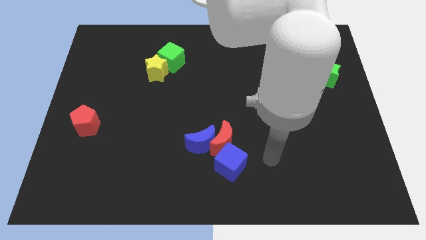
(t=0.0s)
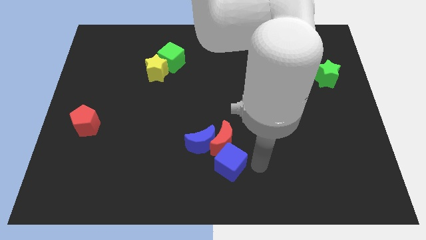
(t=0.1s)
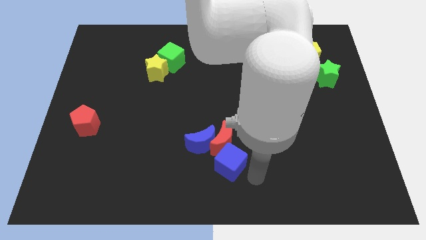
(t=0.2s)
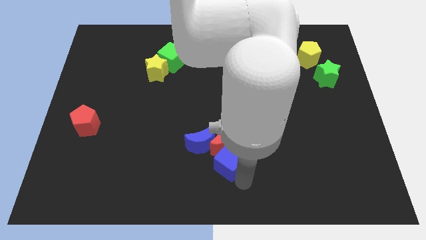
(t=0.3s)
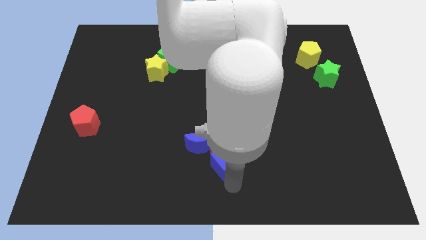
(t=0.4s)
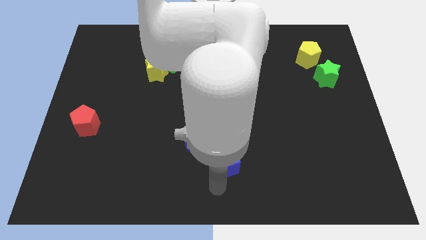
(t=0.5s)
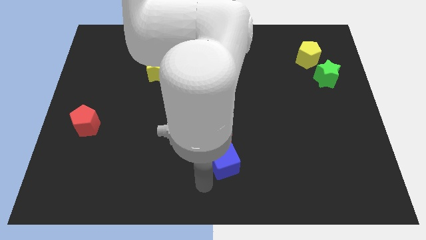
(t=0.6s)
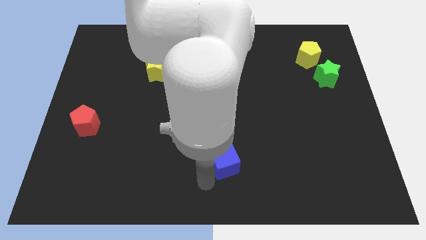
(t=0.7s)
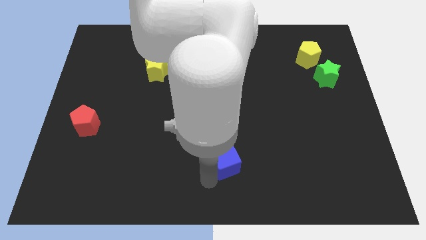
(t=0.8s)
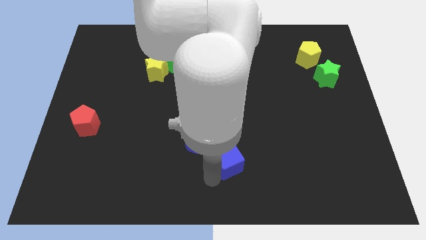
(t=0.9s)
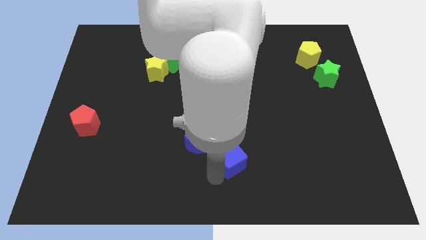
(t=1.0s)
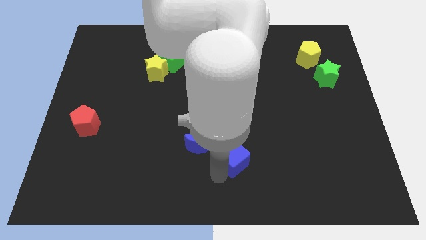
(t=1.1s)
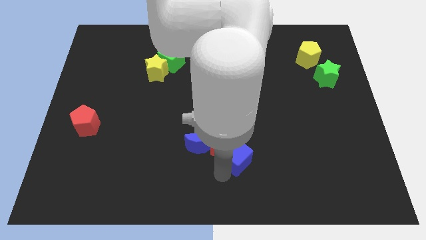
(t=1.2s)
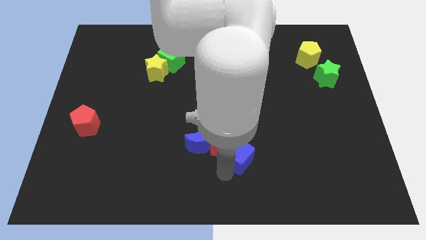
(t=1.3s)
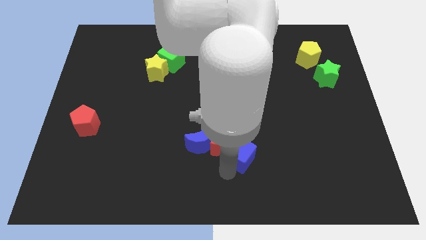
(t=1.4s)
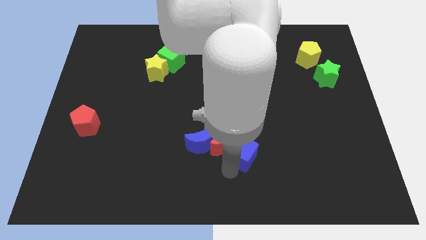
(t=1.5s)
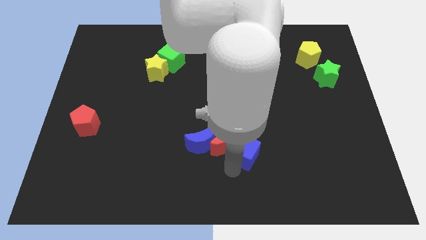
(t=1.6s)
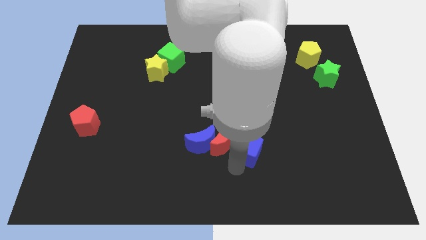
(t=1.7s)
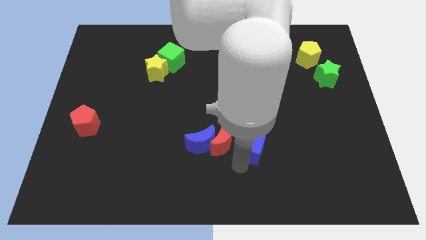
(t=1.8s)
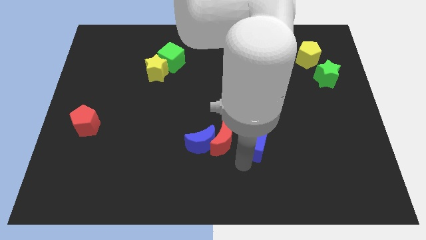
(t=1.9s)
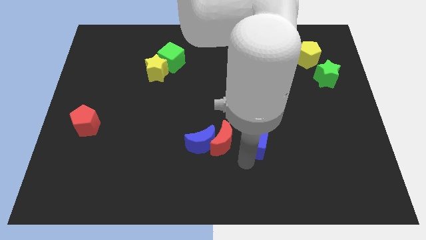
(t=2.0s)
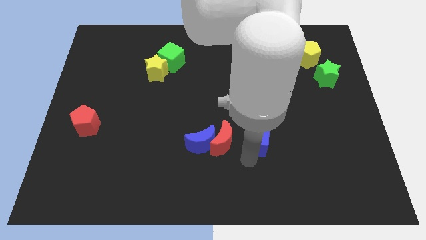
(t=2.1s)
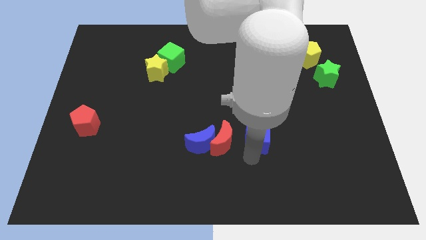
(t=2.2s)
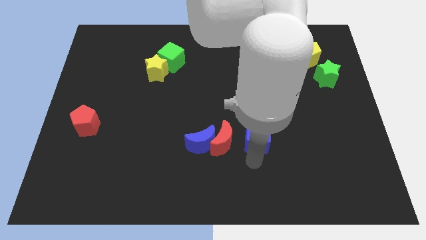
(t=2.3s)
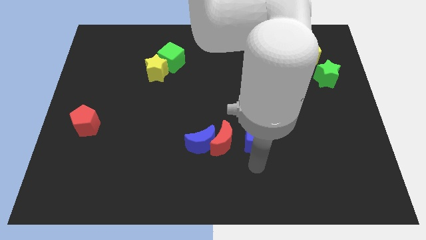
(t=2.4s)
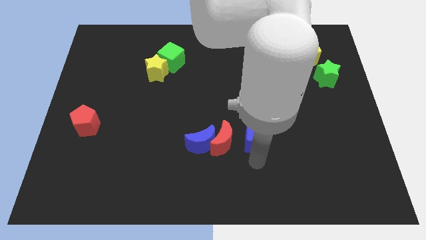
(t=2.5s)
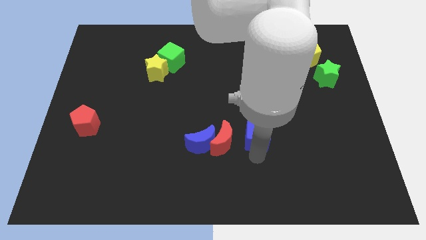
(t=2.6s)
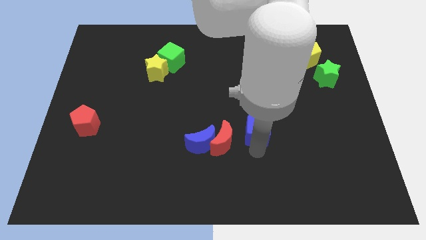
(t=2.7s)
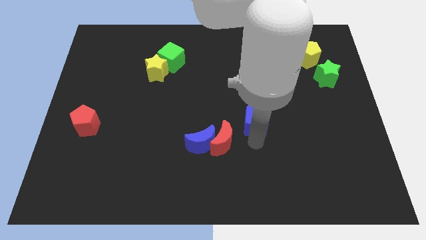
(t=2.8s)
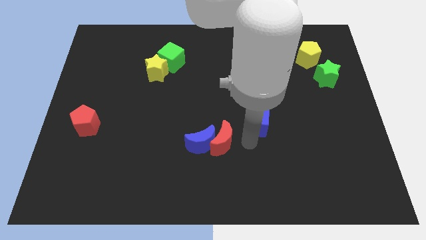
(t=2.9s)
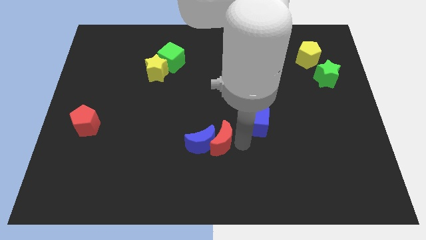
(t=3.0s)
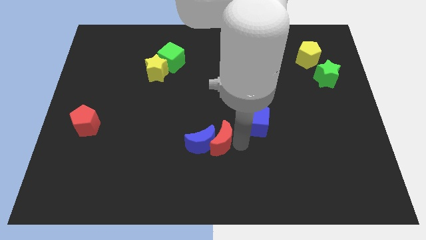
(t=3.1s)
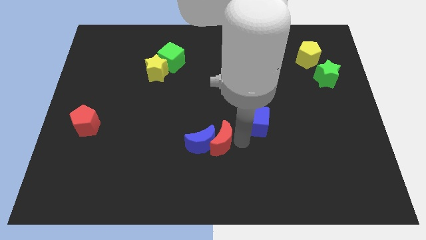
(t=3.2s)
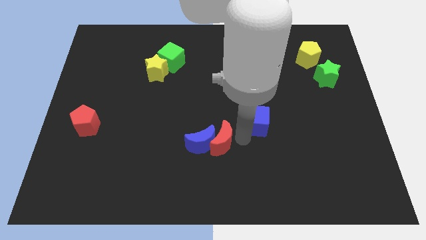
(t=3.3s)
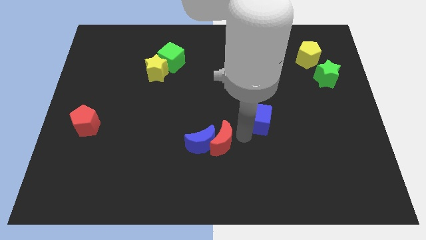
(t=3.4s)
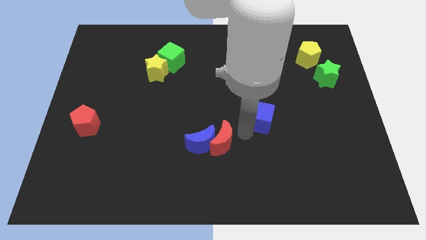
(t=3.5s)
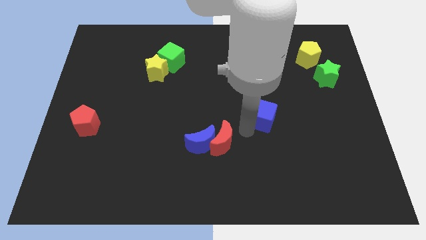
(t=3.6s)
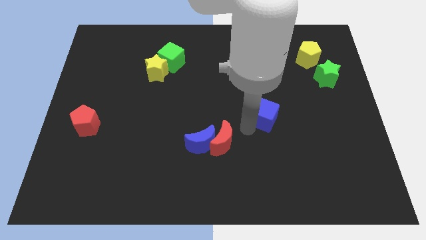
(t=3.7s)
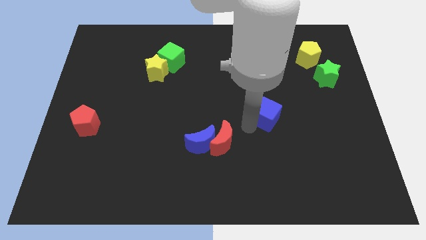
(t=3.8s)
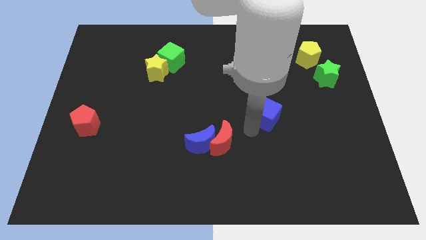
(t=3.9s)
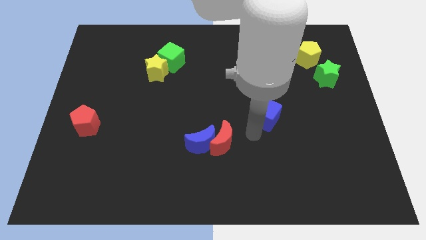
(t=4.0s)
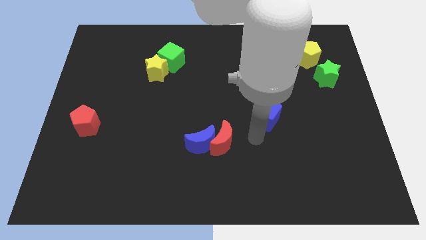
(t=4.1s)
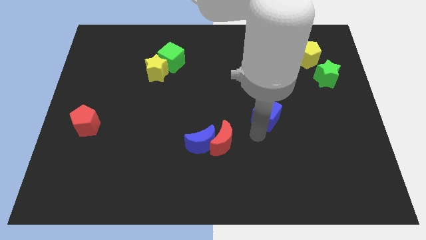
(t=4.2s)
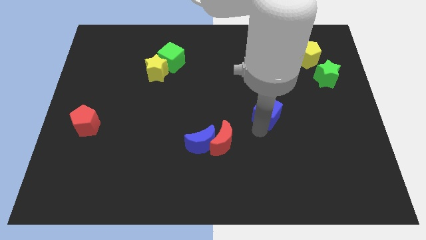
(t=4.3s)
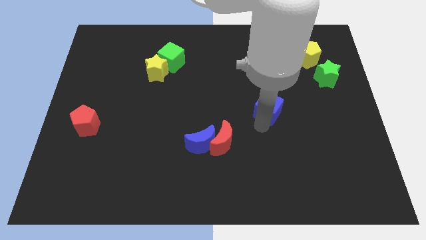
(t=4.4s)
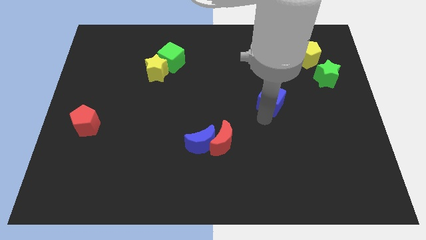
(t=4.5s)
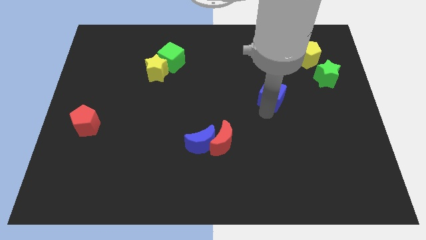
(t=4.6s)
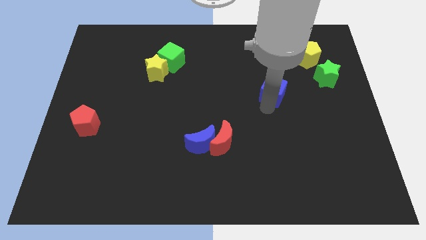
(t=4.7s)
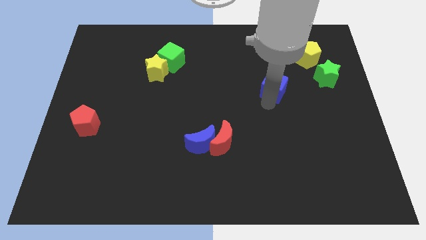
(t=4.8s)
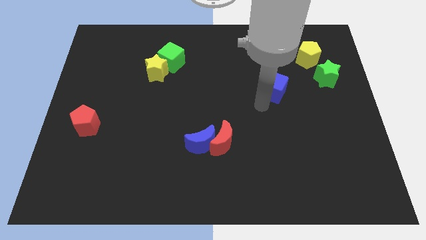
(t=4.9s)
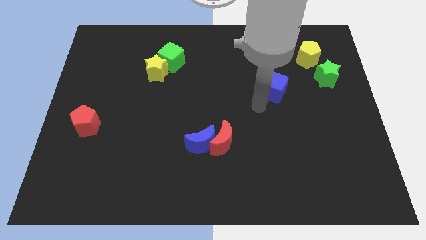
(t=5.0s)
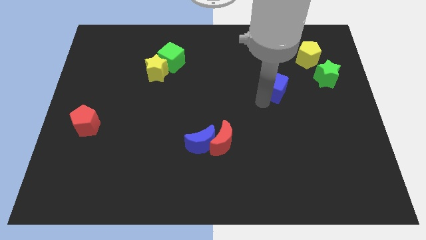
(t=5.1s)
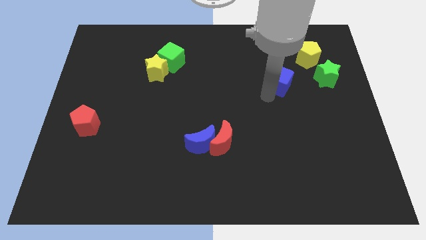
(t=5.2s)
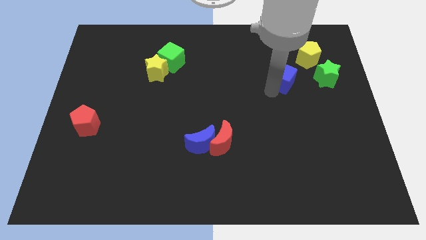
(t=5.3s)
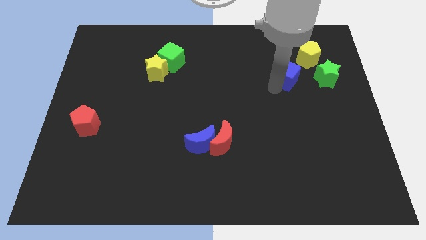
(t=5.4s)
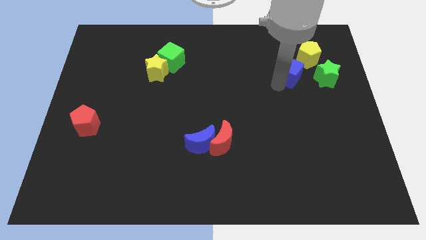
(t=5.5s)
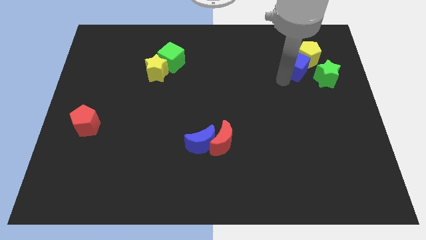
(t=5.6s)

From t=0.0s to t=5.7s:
move the blue cube to the yellow pentagon

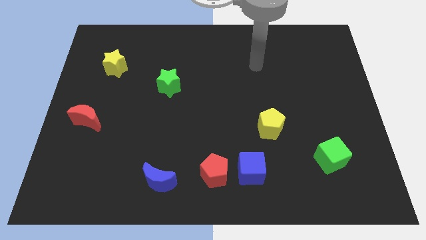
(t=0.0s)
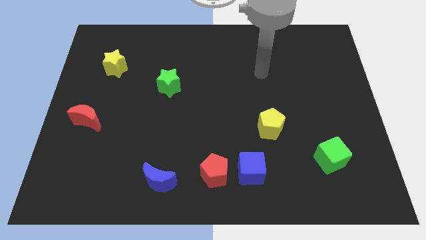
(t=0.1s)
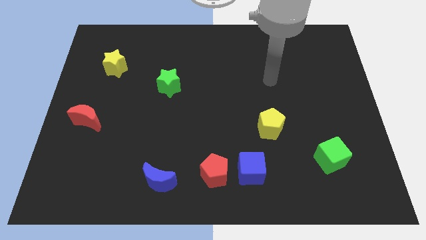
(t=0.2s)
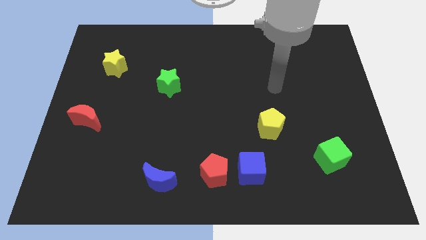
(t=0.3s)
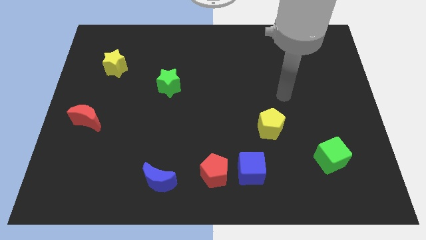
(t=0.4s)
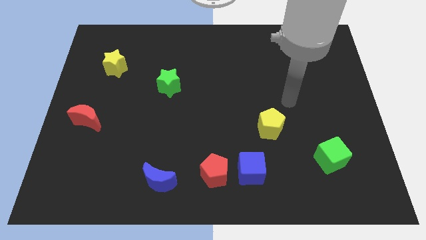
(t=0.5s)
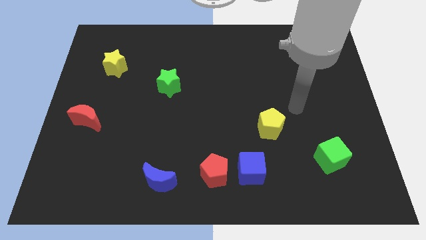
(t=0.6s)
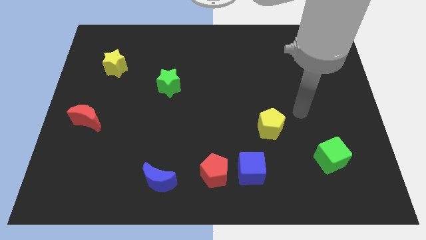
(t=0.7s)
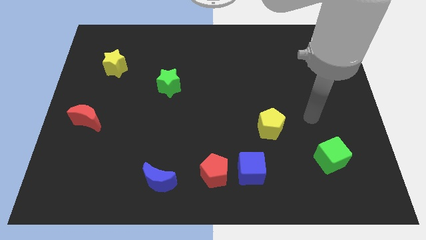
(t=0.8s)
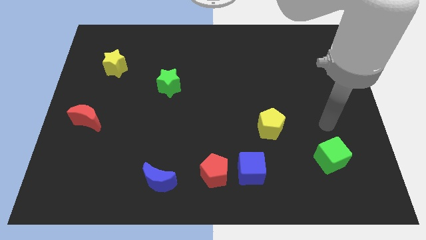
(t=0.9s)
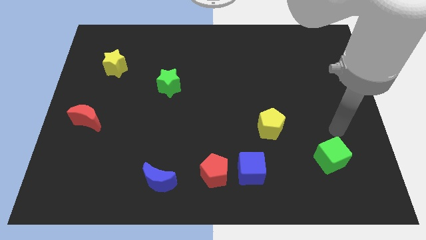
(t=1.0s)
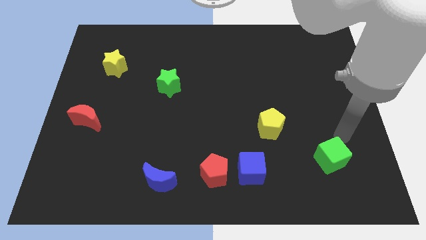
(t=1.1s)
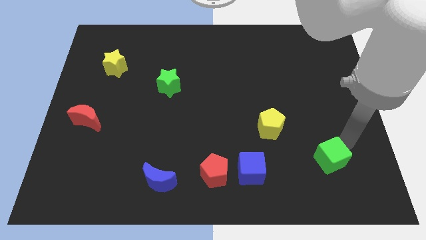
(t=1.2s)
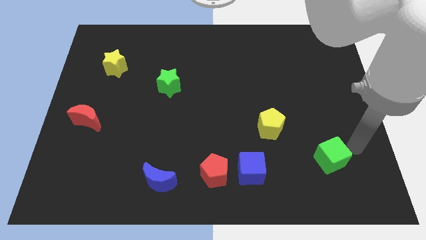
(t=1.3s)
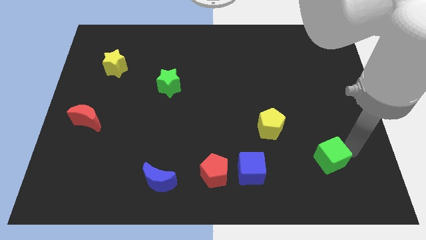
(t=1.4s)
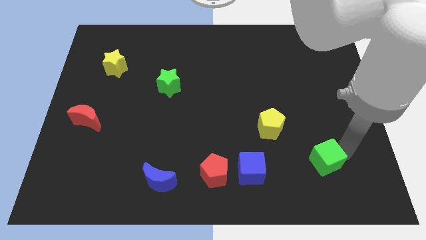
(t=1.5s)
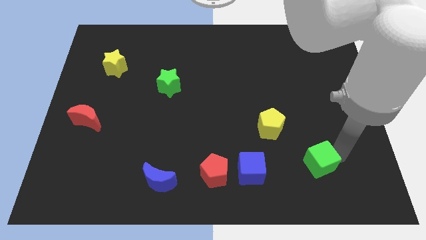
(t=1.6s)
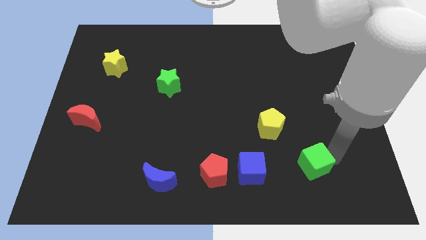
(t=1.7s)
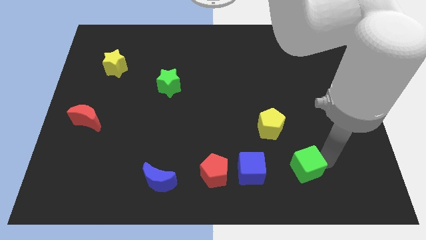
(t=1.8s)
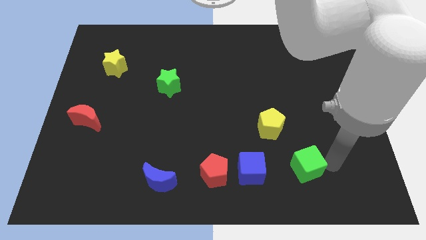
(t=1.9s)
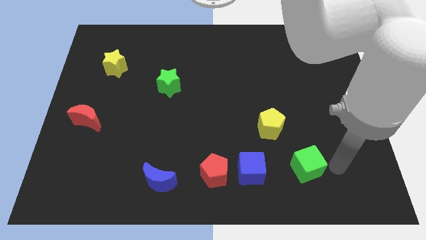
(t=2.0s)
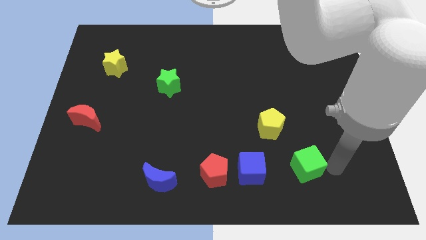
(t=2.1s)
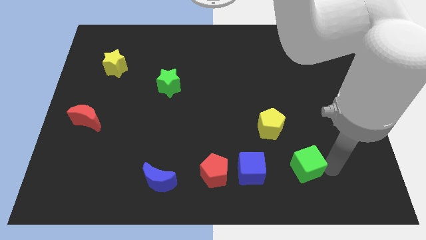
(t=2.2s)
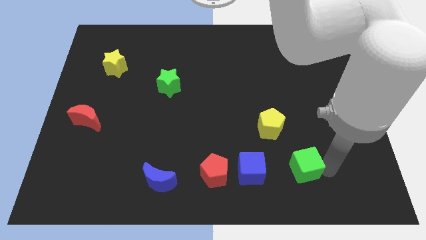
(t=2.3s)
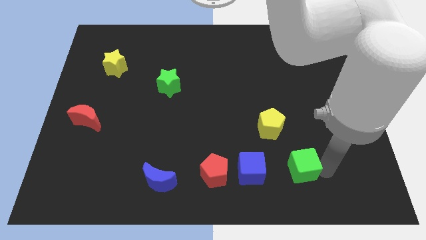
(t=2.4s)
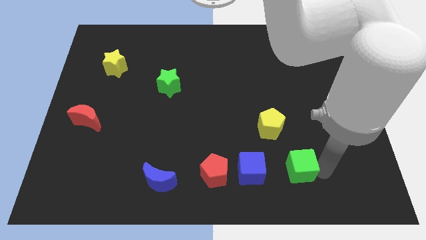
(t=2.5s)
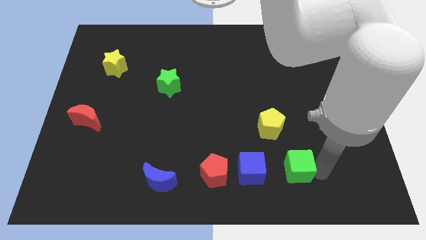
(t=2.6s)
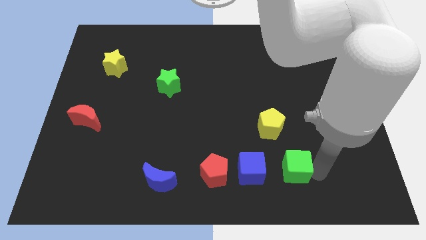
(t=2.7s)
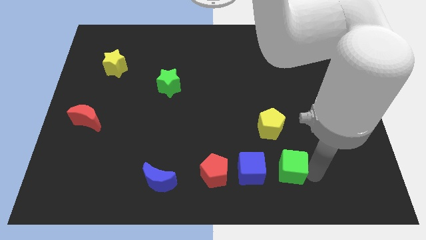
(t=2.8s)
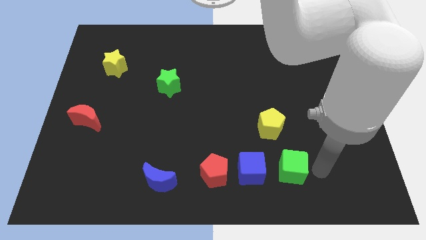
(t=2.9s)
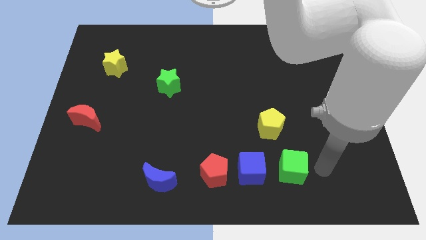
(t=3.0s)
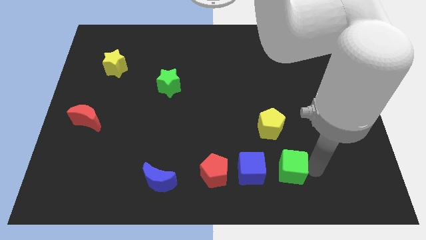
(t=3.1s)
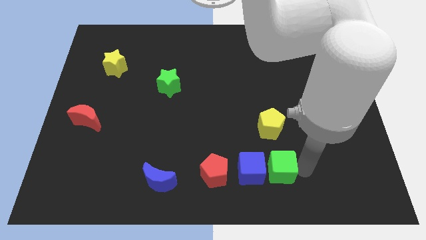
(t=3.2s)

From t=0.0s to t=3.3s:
slide the green cube close to the blue cube
